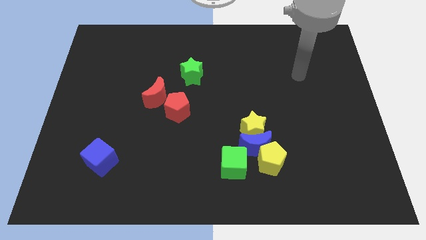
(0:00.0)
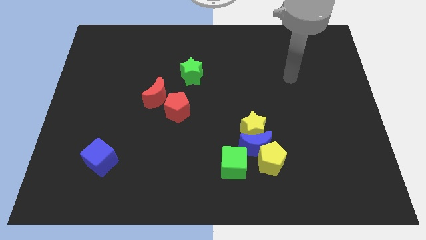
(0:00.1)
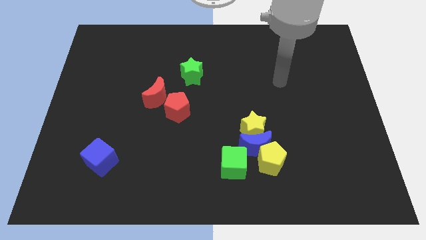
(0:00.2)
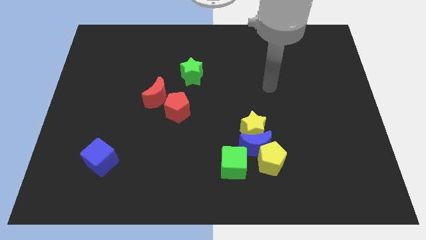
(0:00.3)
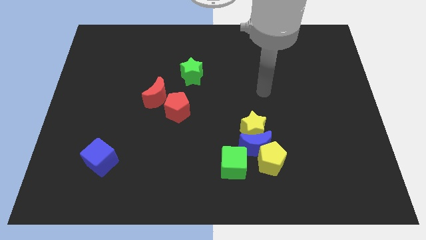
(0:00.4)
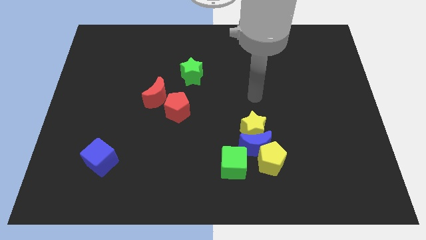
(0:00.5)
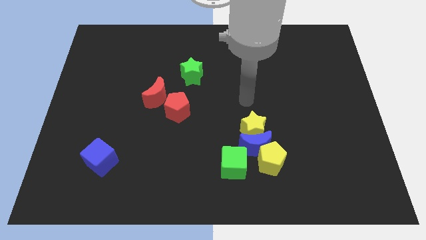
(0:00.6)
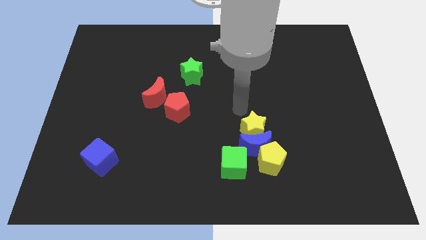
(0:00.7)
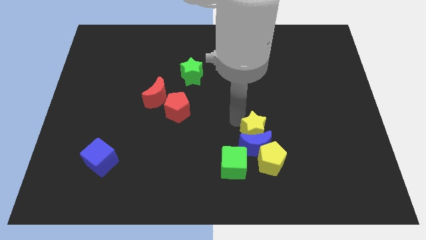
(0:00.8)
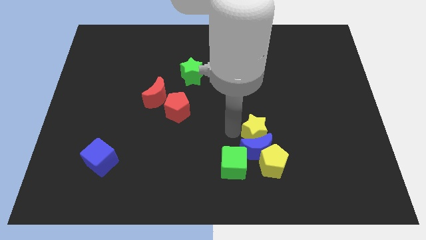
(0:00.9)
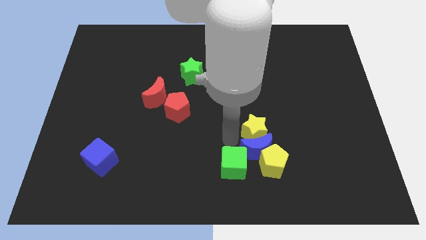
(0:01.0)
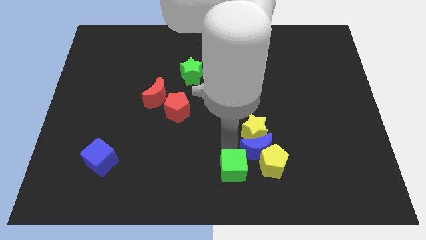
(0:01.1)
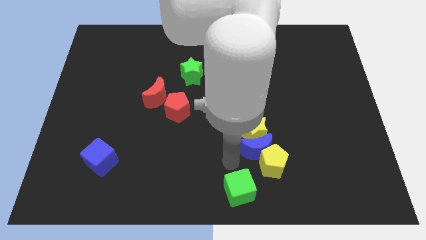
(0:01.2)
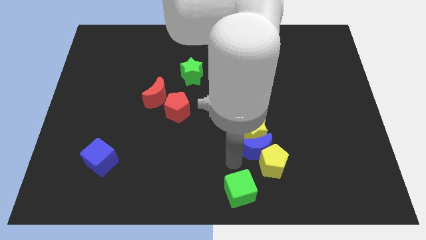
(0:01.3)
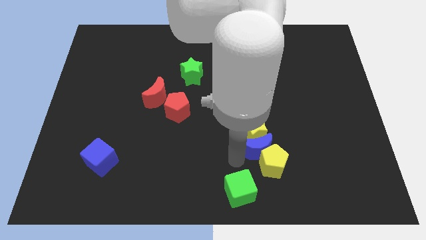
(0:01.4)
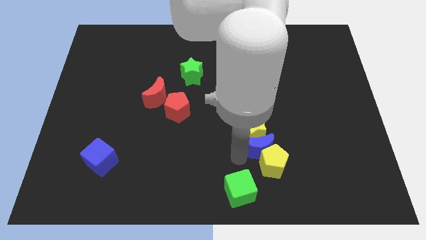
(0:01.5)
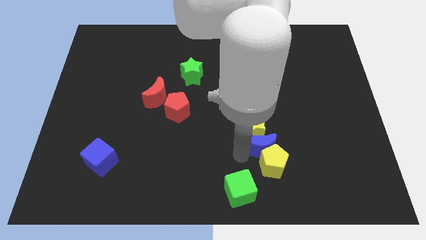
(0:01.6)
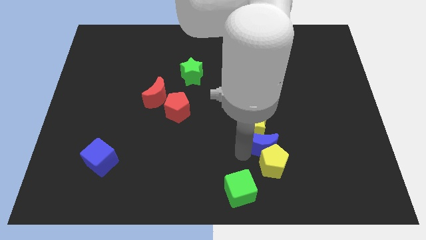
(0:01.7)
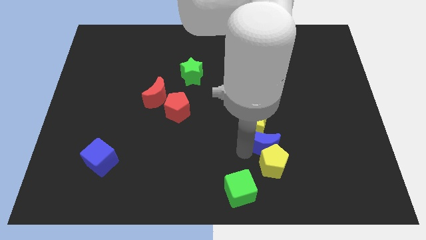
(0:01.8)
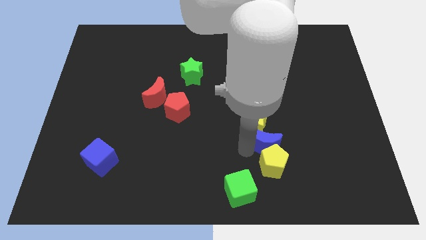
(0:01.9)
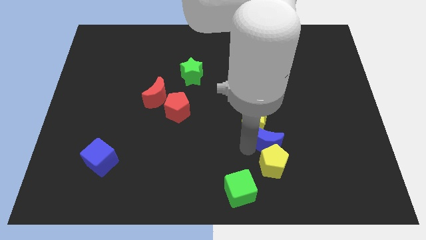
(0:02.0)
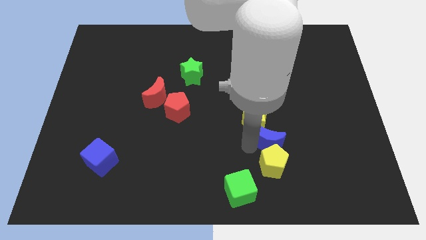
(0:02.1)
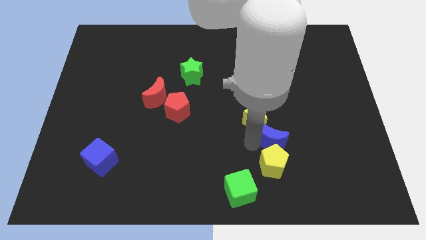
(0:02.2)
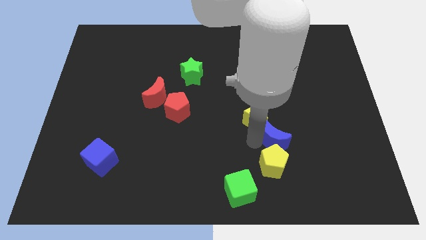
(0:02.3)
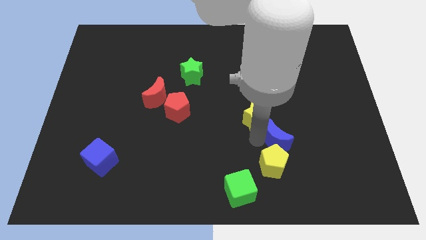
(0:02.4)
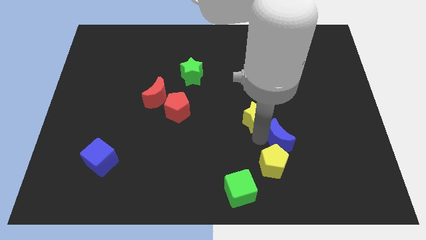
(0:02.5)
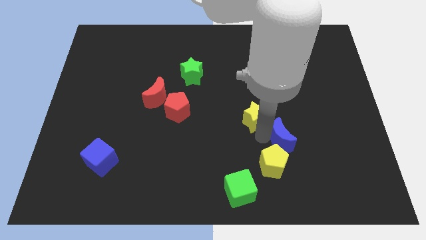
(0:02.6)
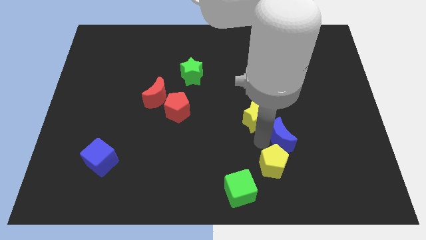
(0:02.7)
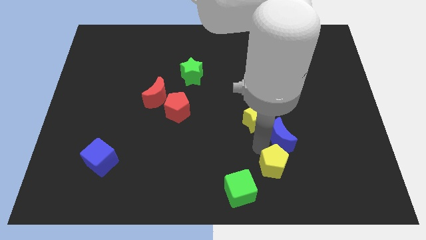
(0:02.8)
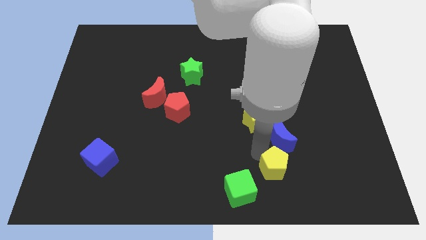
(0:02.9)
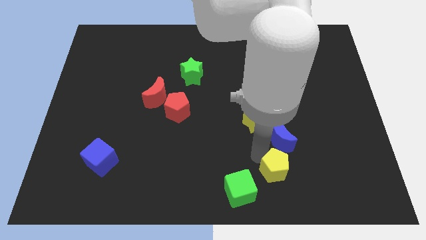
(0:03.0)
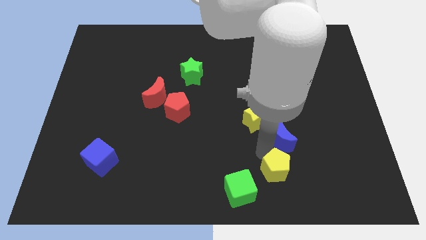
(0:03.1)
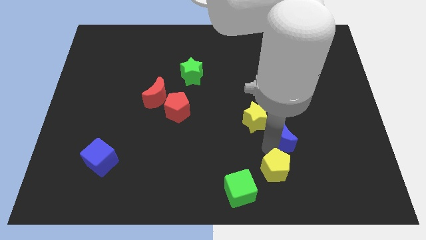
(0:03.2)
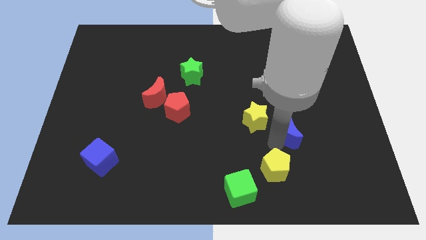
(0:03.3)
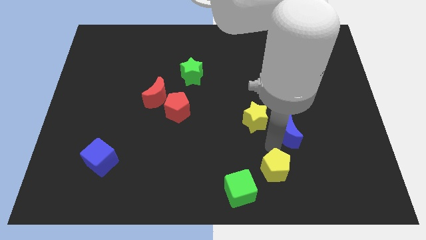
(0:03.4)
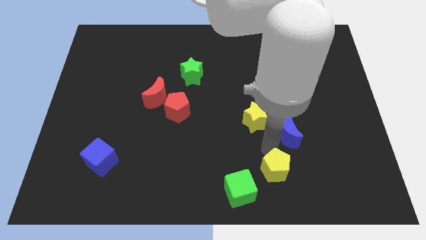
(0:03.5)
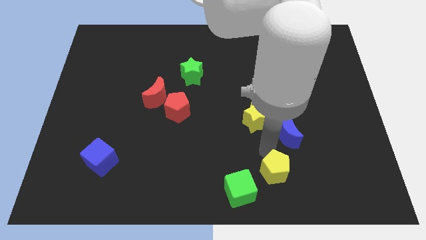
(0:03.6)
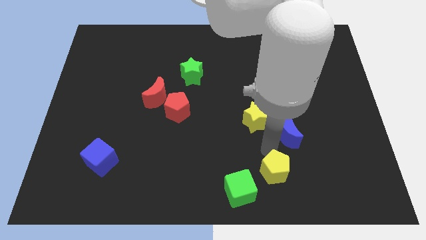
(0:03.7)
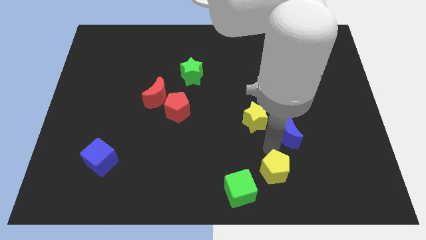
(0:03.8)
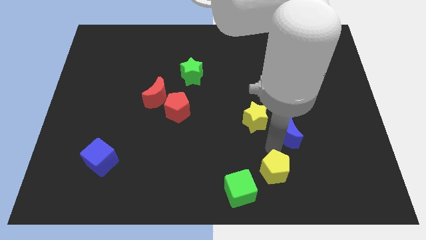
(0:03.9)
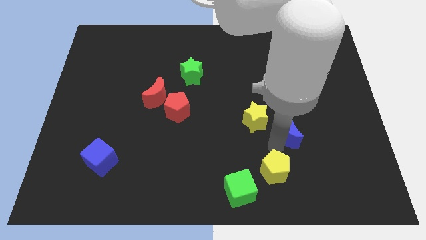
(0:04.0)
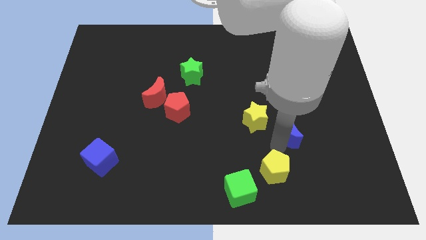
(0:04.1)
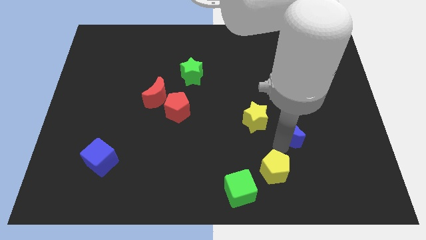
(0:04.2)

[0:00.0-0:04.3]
pull the blue moon apart from the group

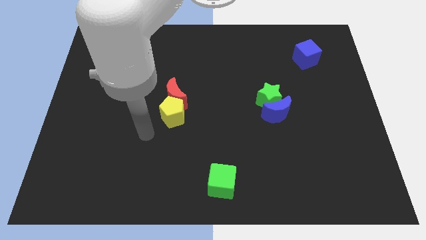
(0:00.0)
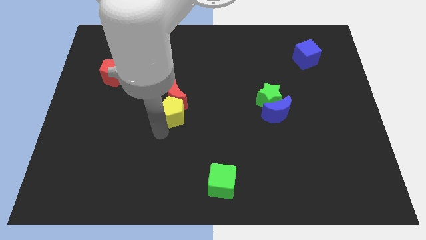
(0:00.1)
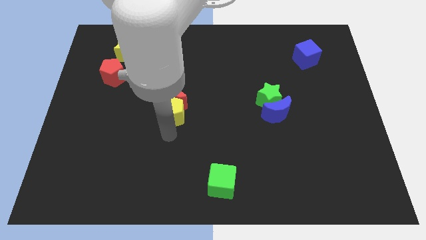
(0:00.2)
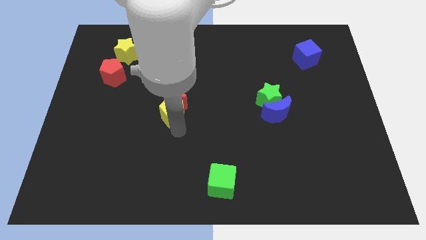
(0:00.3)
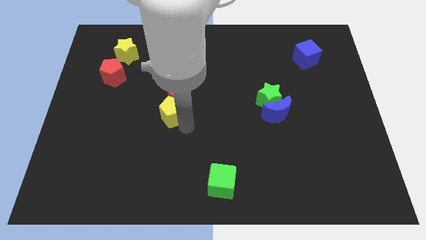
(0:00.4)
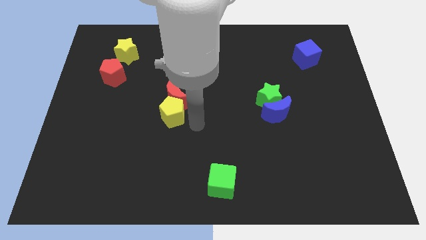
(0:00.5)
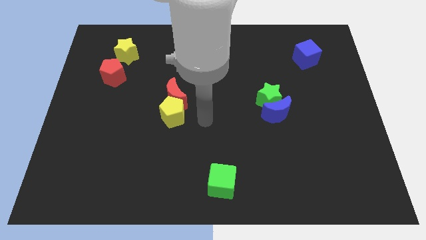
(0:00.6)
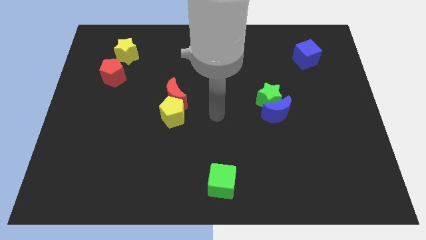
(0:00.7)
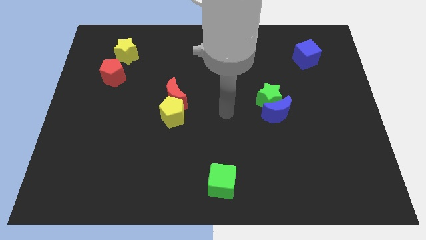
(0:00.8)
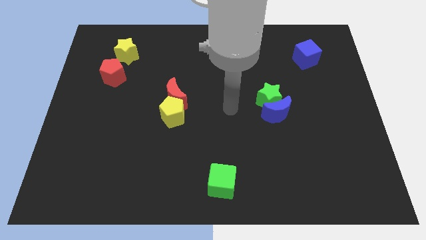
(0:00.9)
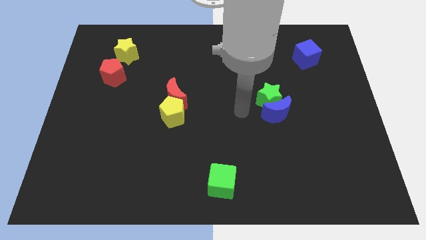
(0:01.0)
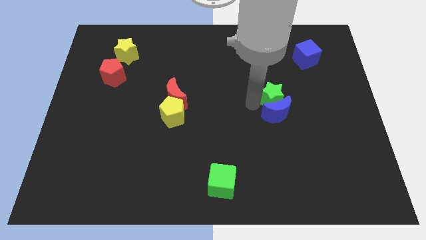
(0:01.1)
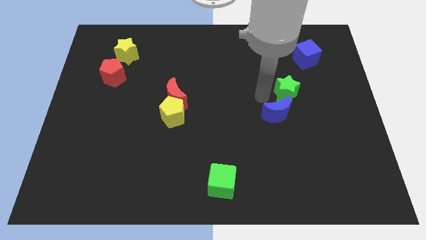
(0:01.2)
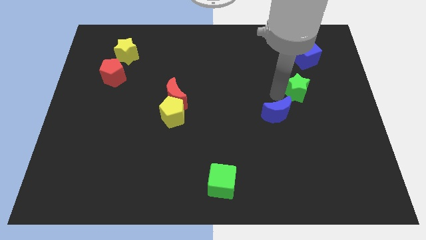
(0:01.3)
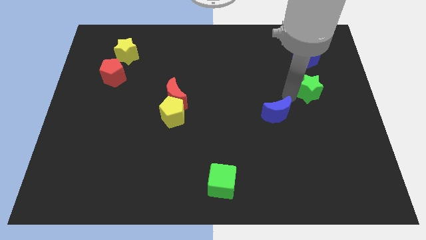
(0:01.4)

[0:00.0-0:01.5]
separate the blue moon from the green star

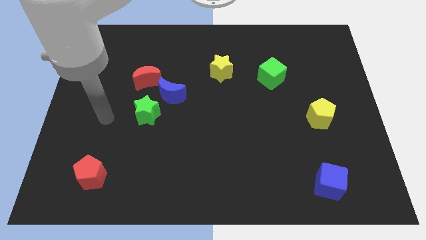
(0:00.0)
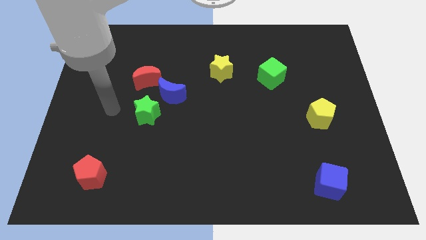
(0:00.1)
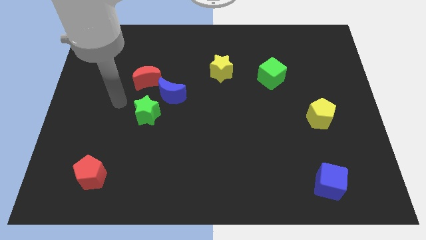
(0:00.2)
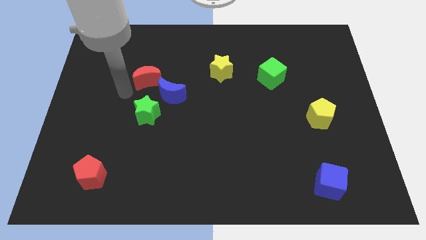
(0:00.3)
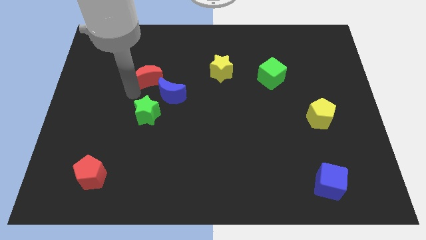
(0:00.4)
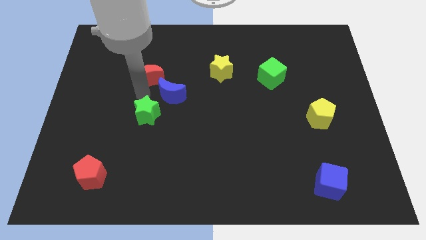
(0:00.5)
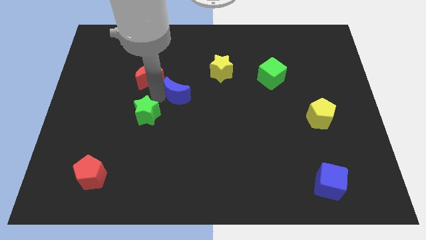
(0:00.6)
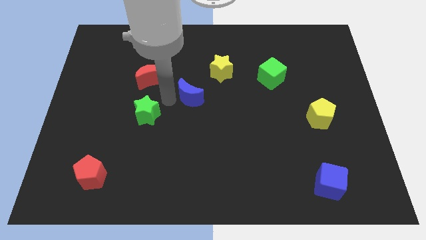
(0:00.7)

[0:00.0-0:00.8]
move the green star away from the blue moon

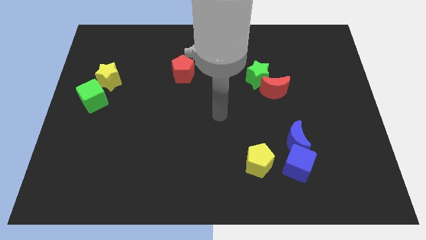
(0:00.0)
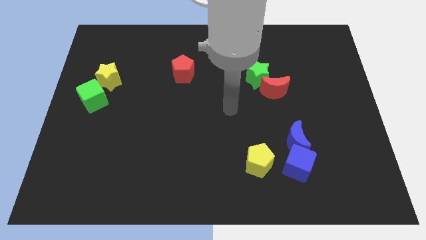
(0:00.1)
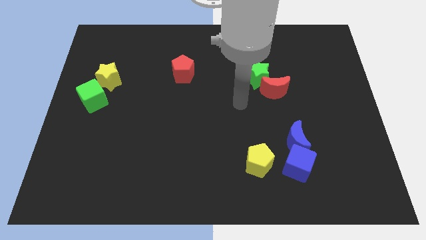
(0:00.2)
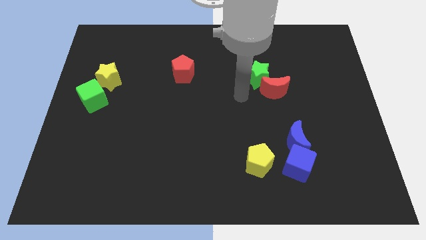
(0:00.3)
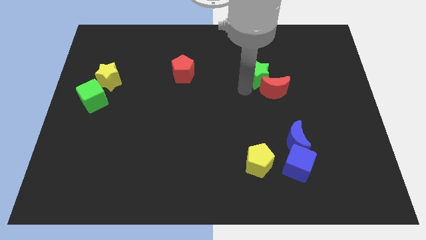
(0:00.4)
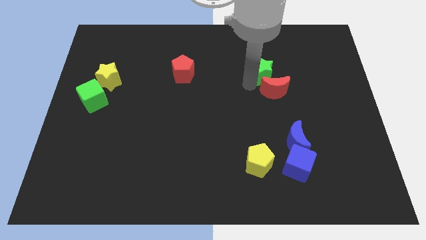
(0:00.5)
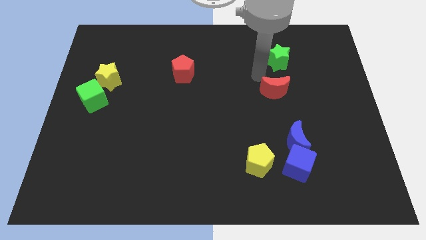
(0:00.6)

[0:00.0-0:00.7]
move the red moon away from the green star

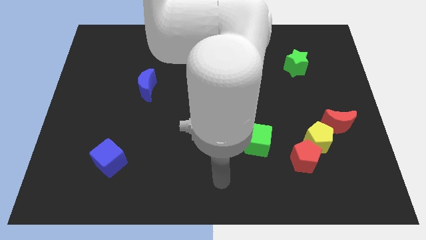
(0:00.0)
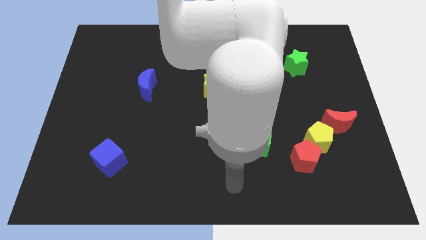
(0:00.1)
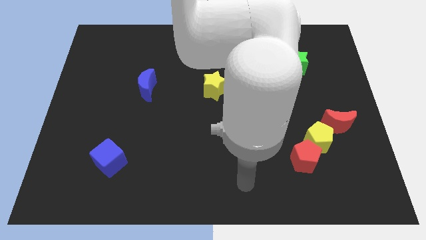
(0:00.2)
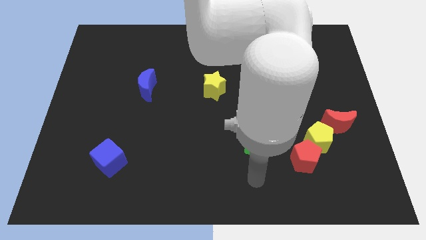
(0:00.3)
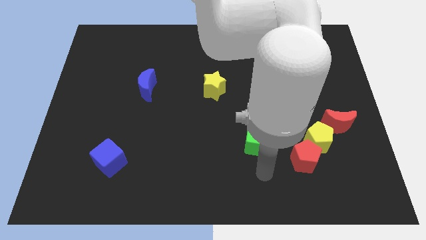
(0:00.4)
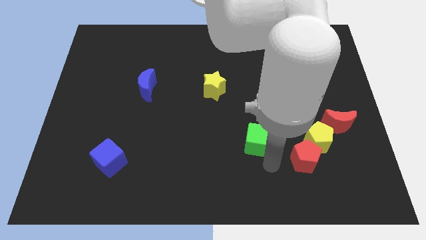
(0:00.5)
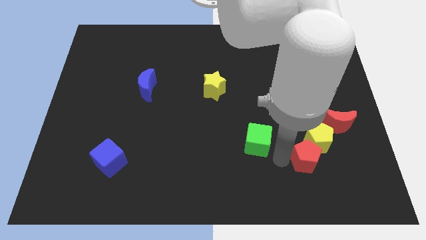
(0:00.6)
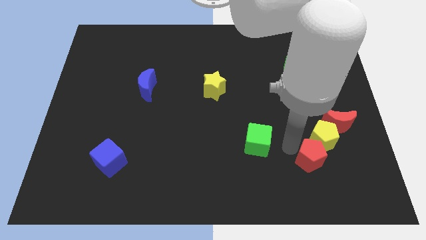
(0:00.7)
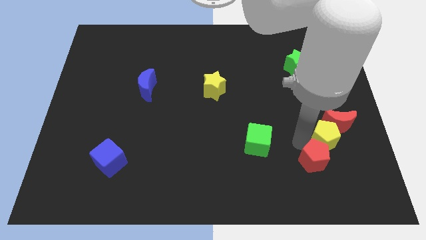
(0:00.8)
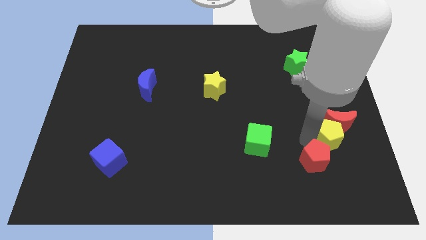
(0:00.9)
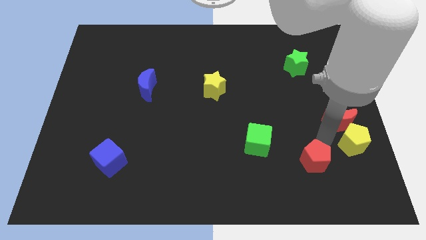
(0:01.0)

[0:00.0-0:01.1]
move the red pentagon away from the yellow pentagon

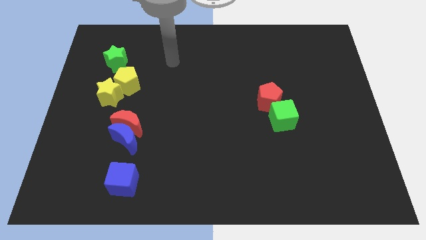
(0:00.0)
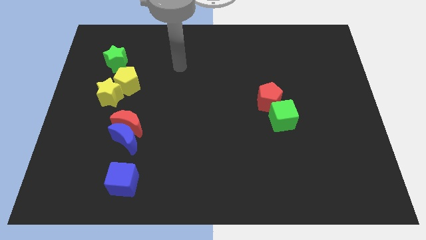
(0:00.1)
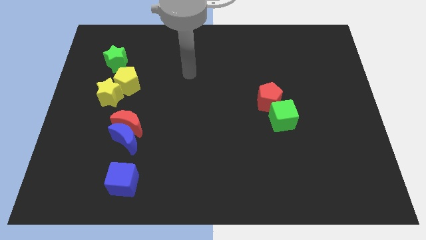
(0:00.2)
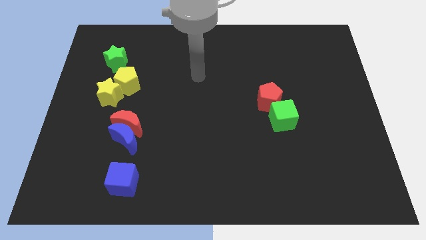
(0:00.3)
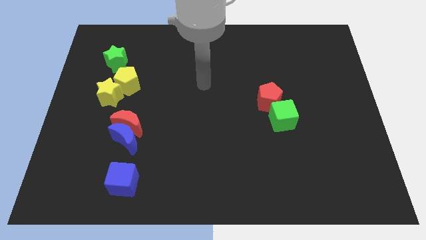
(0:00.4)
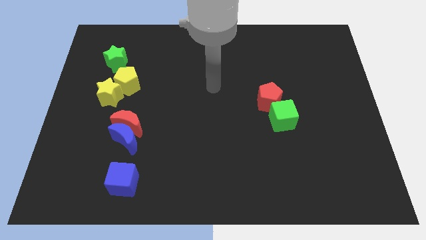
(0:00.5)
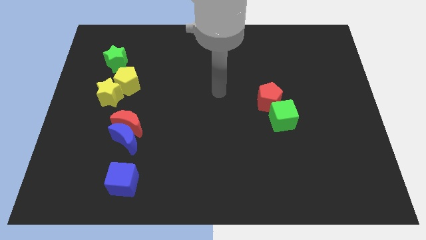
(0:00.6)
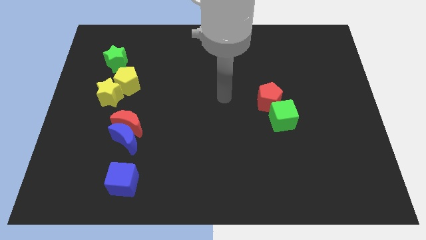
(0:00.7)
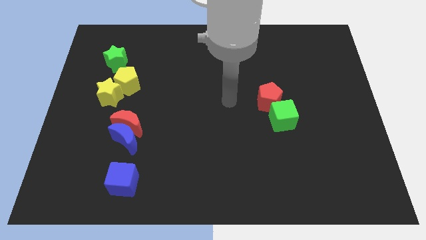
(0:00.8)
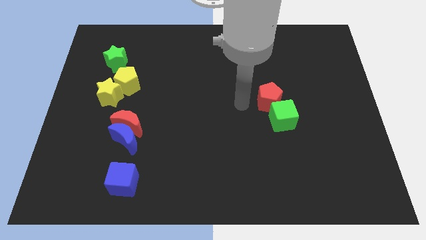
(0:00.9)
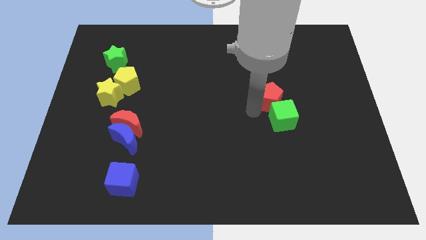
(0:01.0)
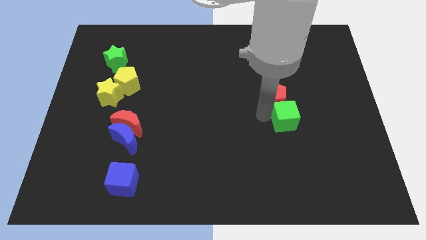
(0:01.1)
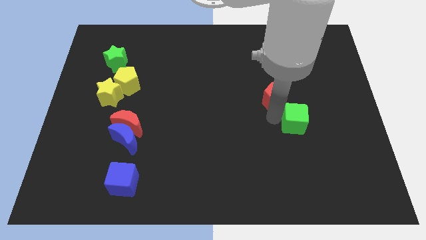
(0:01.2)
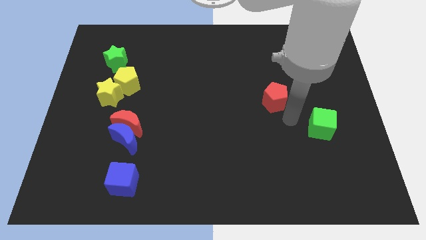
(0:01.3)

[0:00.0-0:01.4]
separate the red pentagon from the green cube
